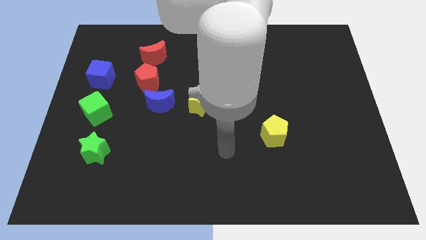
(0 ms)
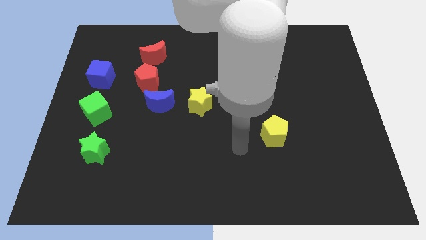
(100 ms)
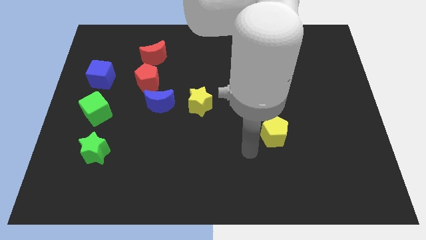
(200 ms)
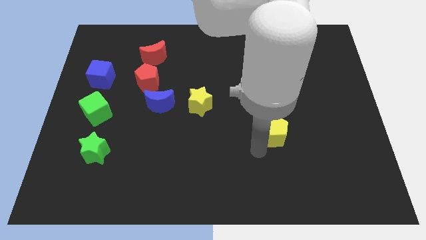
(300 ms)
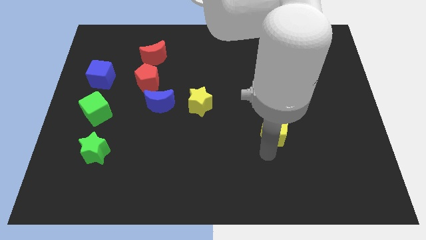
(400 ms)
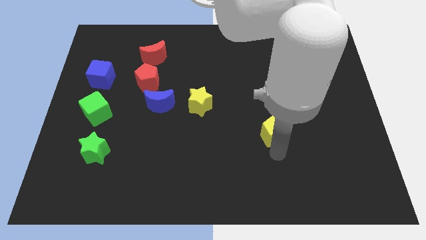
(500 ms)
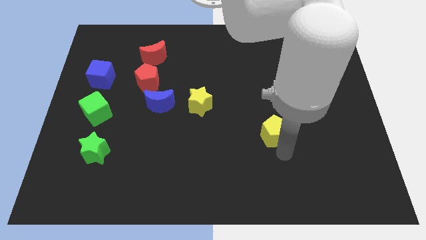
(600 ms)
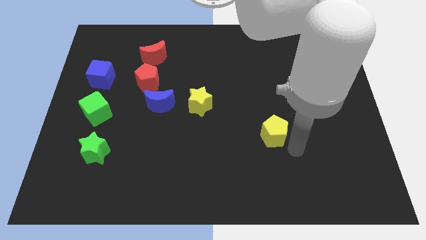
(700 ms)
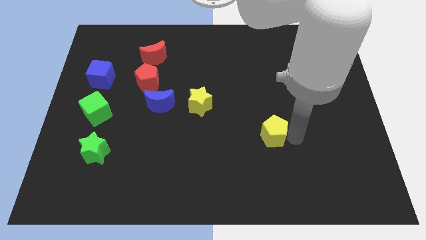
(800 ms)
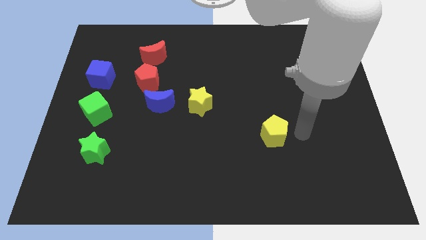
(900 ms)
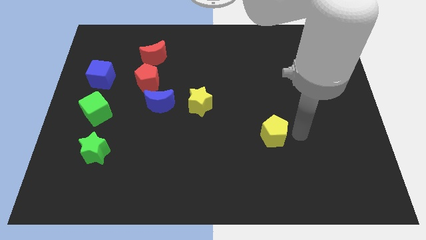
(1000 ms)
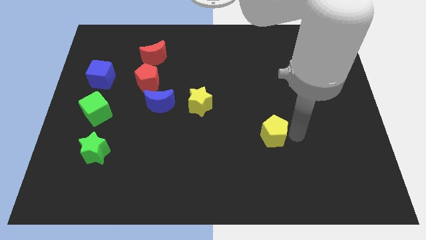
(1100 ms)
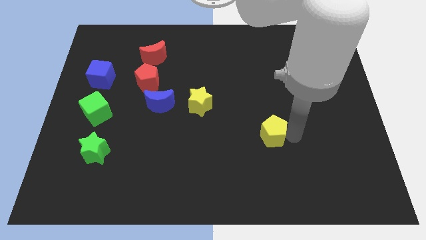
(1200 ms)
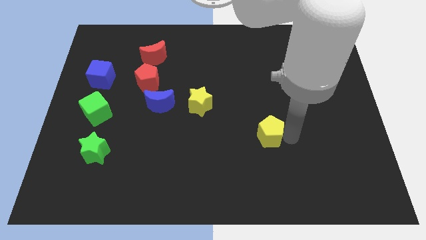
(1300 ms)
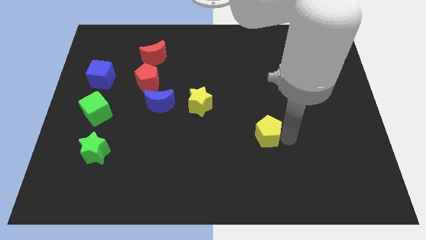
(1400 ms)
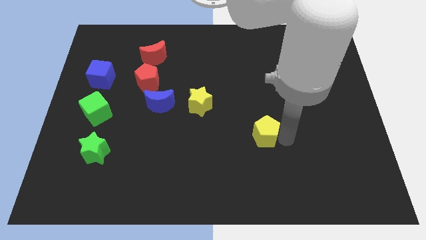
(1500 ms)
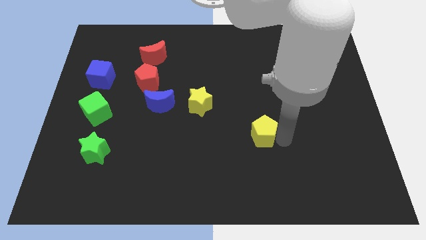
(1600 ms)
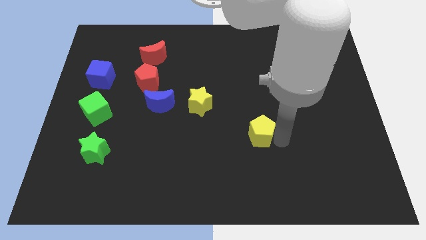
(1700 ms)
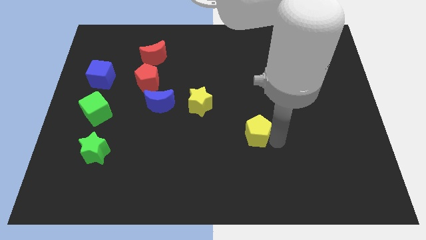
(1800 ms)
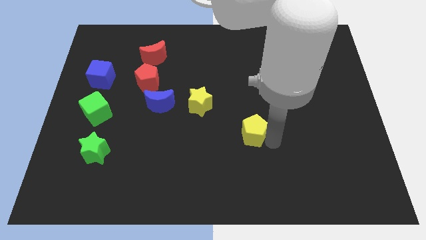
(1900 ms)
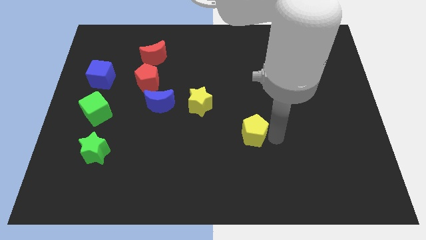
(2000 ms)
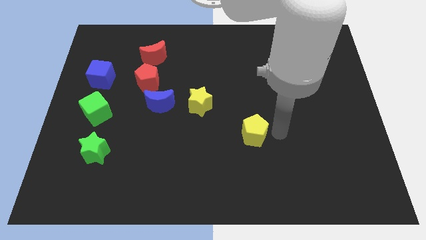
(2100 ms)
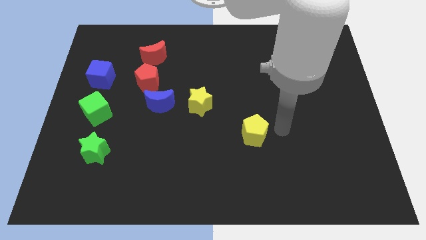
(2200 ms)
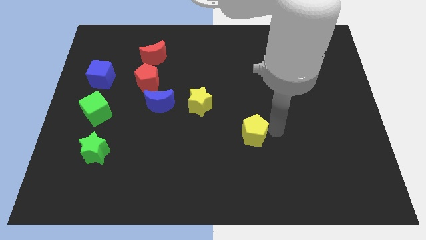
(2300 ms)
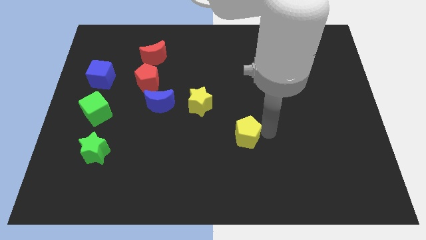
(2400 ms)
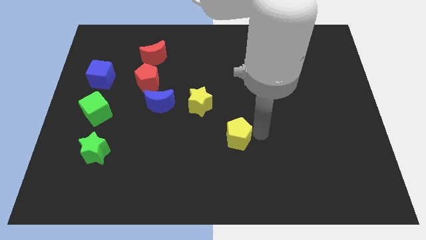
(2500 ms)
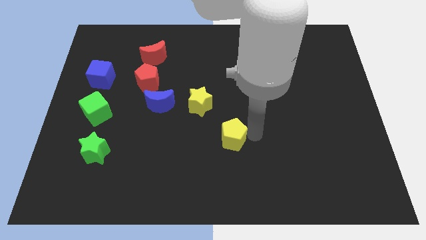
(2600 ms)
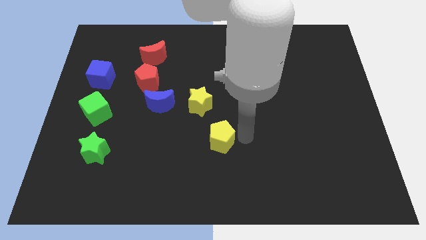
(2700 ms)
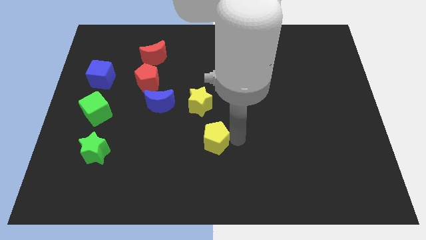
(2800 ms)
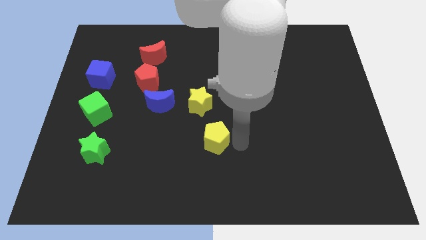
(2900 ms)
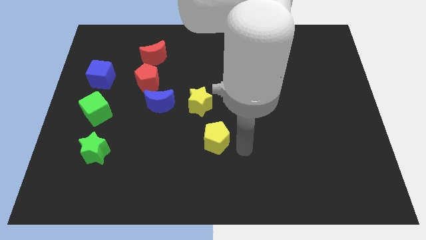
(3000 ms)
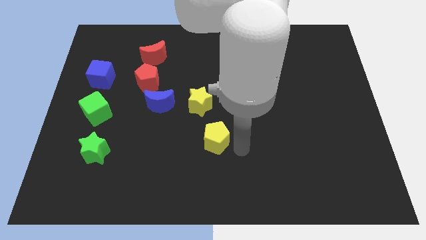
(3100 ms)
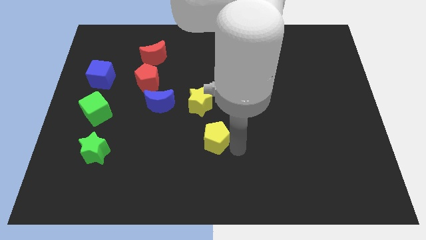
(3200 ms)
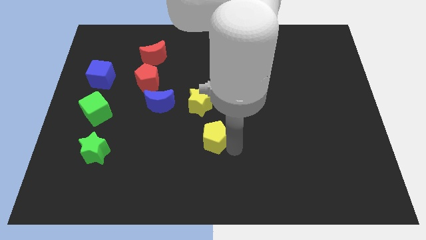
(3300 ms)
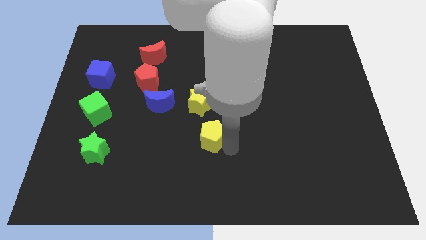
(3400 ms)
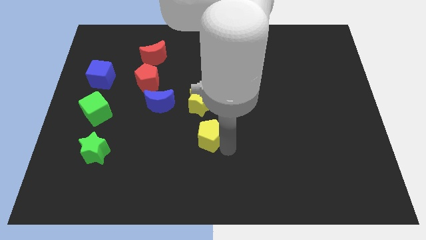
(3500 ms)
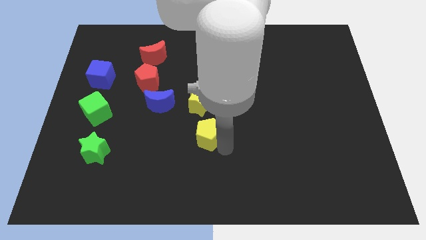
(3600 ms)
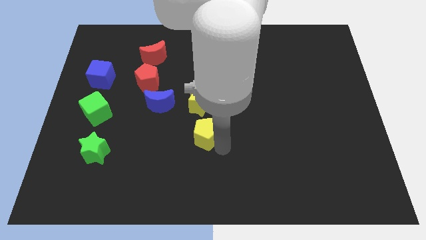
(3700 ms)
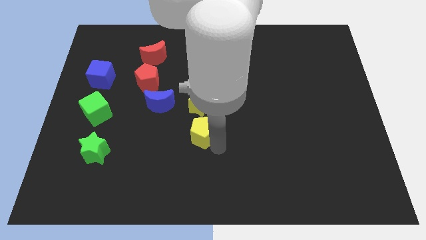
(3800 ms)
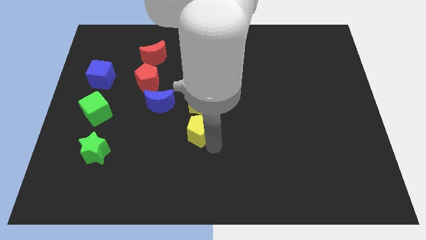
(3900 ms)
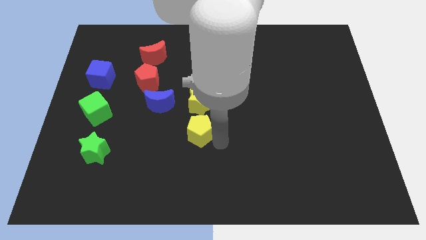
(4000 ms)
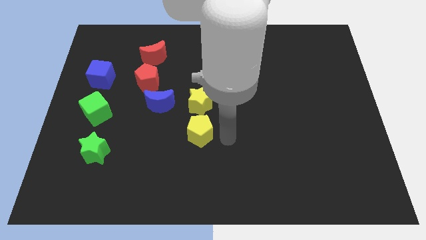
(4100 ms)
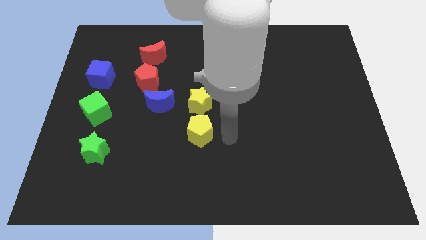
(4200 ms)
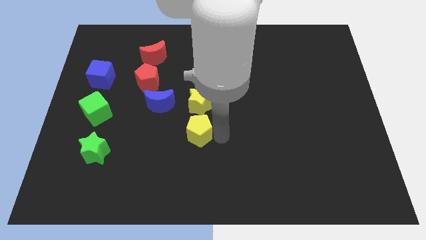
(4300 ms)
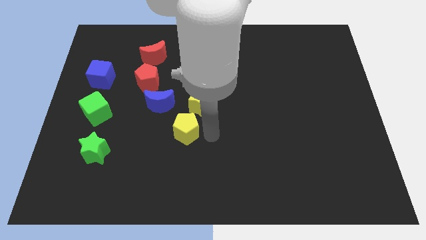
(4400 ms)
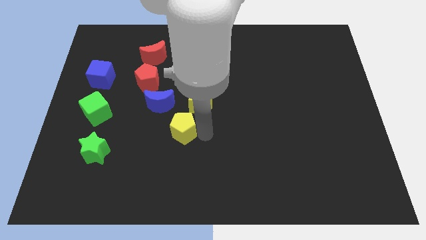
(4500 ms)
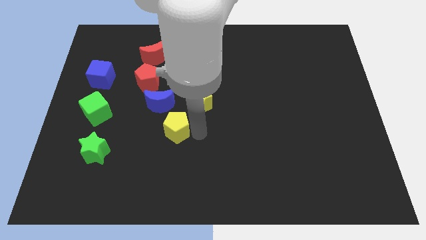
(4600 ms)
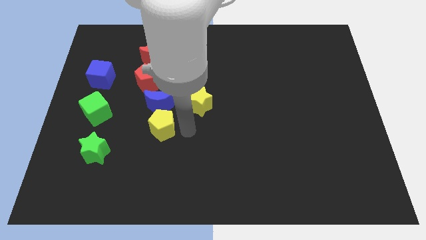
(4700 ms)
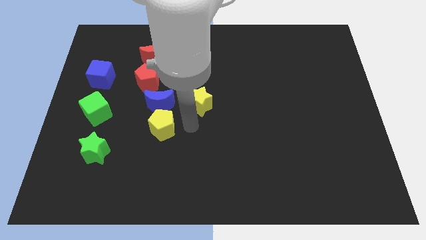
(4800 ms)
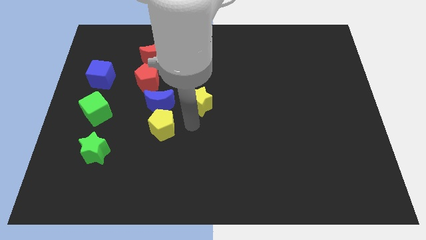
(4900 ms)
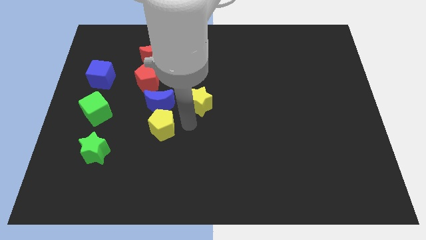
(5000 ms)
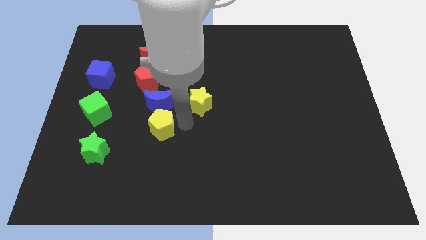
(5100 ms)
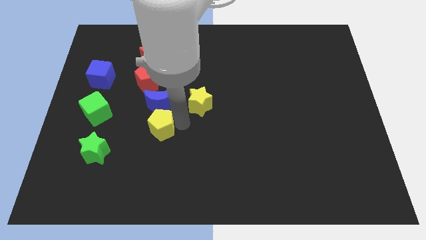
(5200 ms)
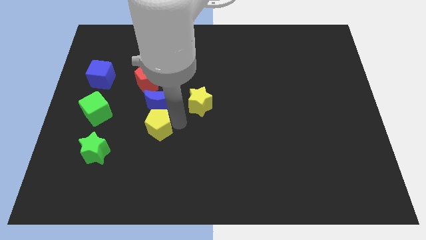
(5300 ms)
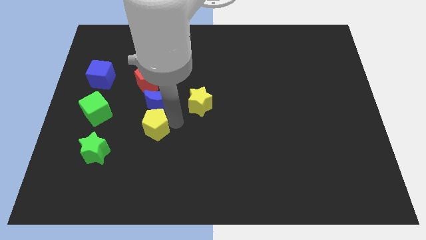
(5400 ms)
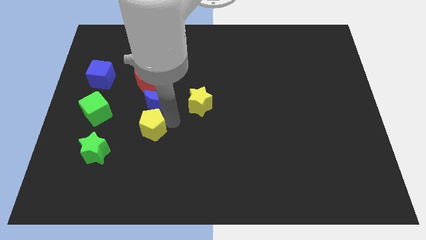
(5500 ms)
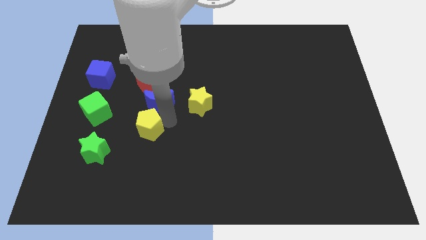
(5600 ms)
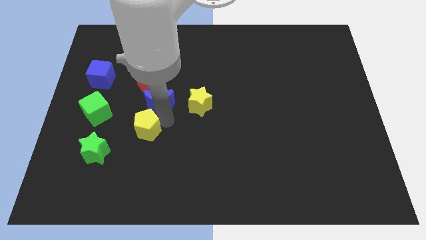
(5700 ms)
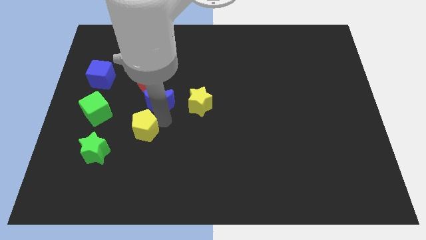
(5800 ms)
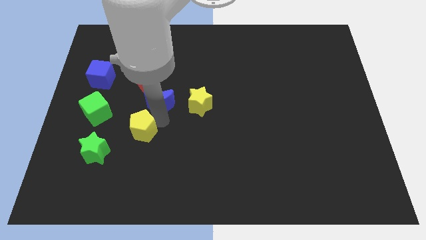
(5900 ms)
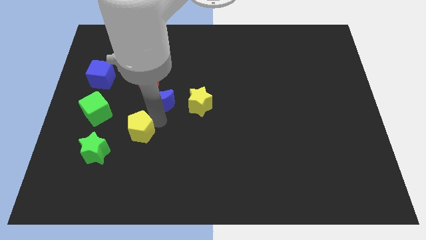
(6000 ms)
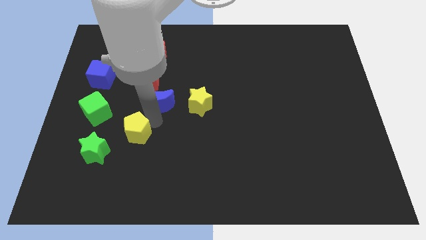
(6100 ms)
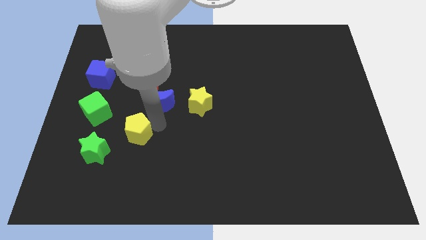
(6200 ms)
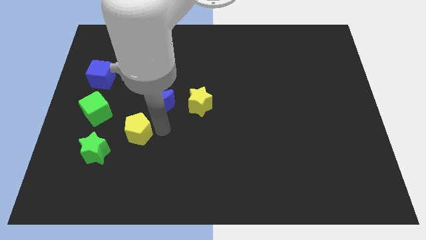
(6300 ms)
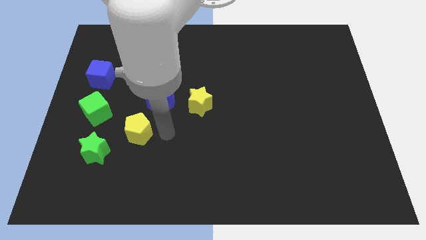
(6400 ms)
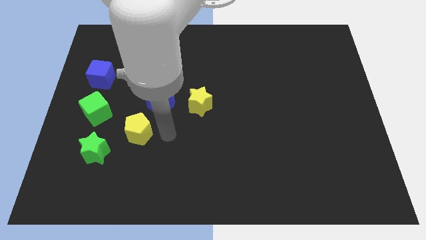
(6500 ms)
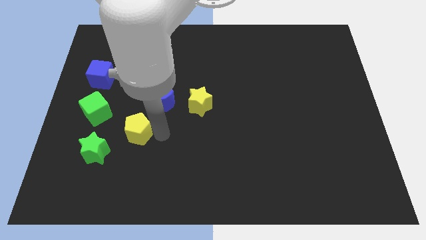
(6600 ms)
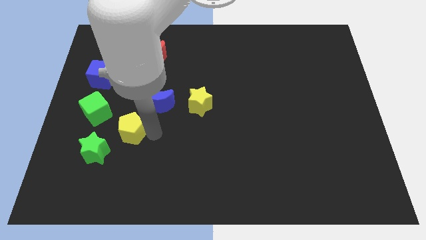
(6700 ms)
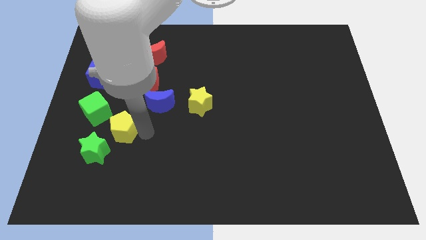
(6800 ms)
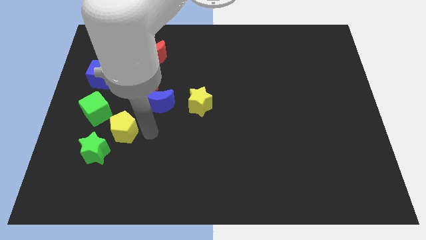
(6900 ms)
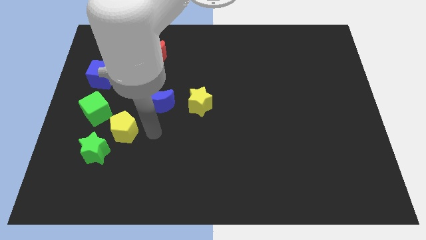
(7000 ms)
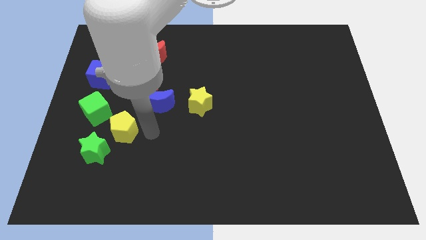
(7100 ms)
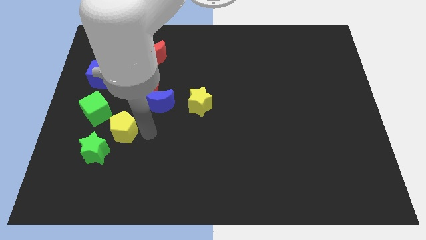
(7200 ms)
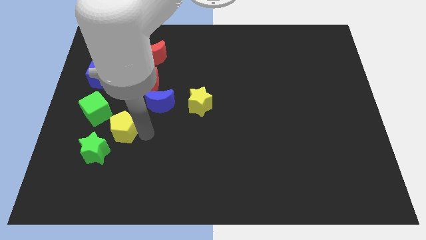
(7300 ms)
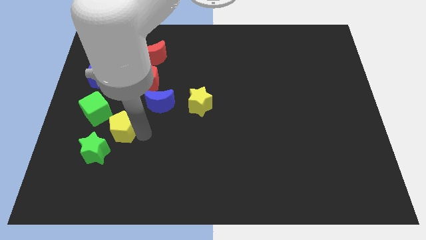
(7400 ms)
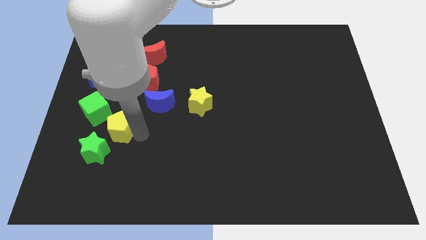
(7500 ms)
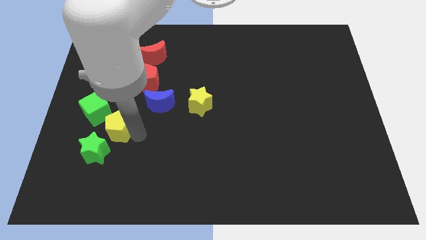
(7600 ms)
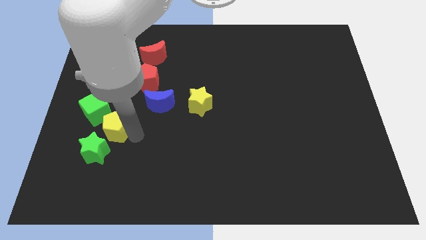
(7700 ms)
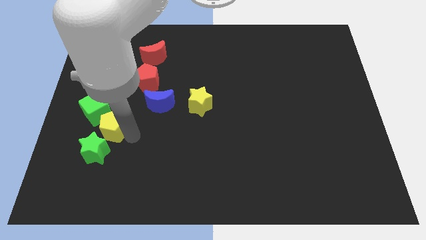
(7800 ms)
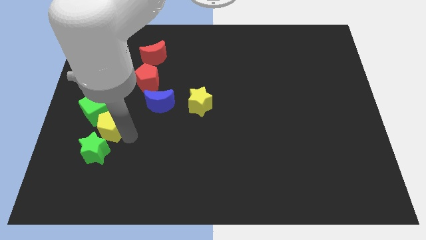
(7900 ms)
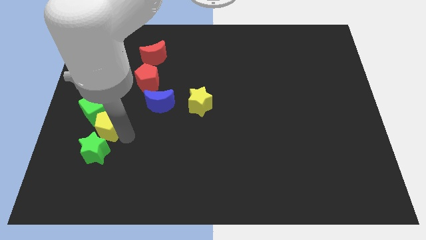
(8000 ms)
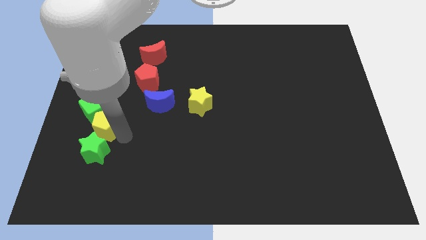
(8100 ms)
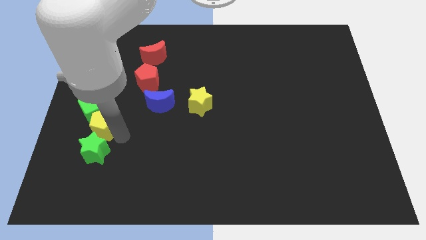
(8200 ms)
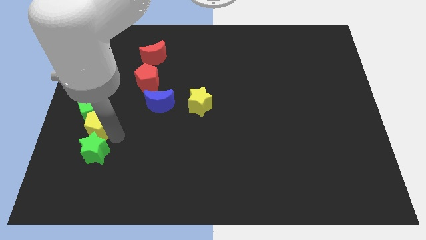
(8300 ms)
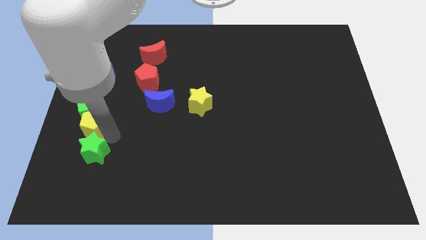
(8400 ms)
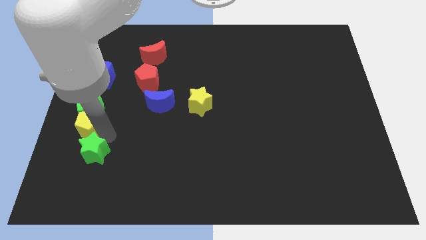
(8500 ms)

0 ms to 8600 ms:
slide the yellow pentagon to the left side
